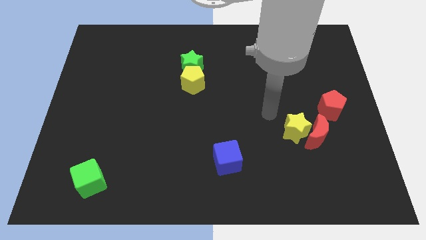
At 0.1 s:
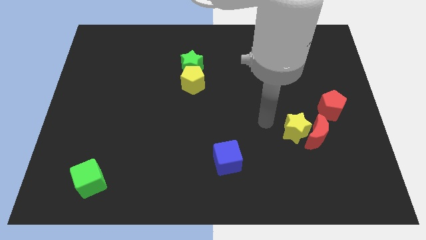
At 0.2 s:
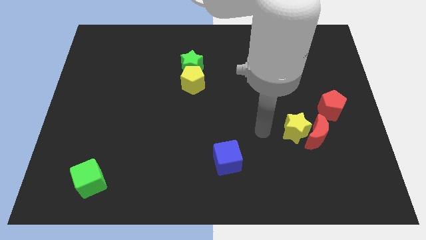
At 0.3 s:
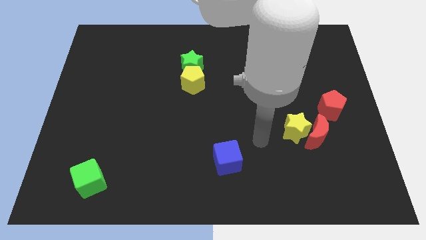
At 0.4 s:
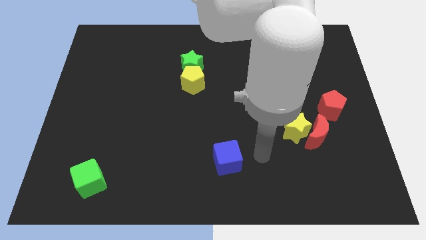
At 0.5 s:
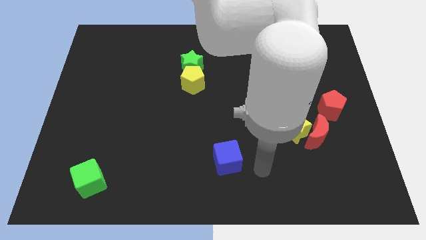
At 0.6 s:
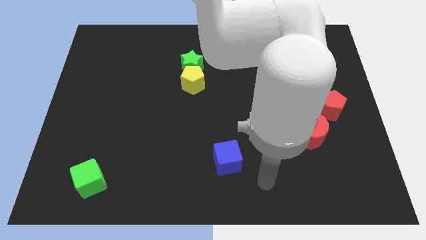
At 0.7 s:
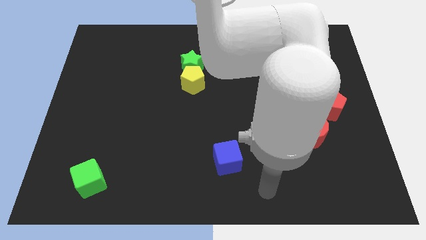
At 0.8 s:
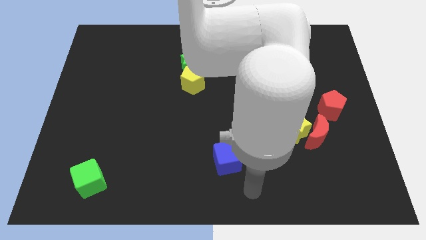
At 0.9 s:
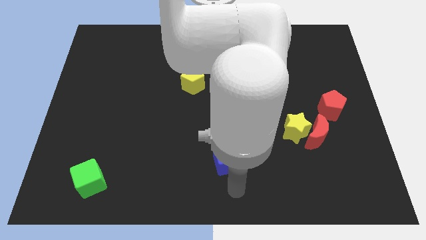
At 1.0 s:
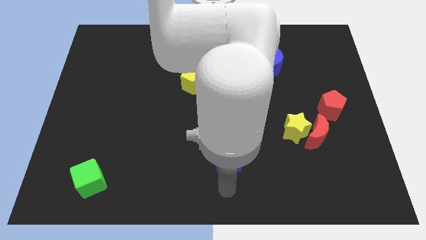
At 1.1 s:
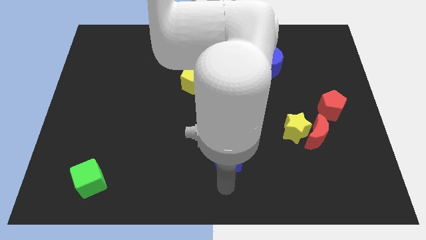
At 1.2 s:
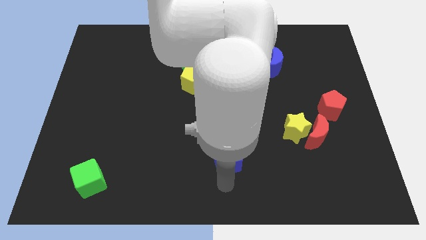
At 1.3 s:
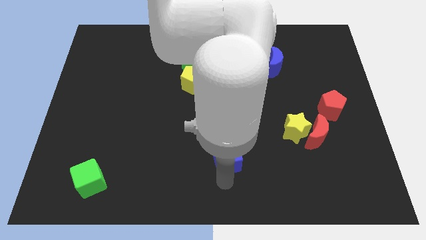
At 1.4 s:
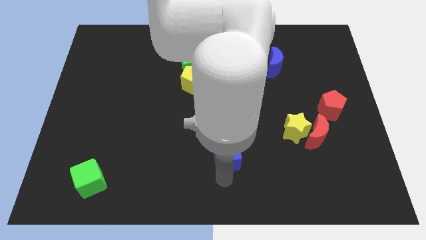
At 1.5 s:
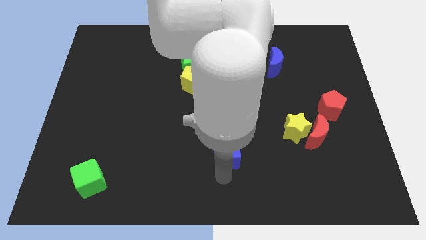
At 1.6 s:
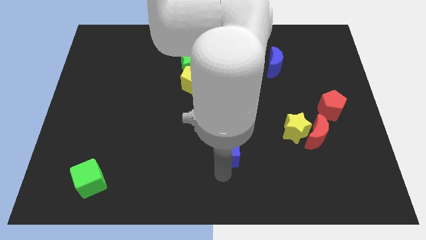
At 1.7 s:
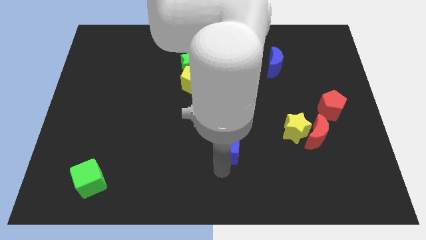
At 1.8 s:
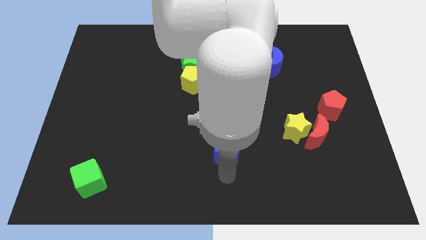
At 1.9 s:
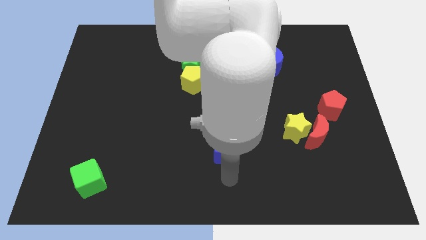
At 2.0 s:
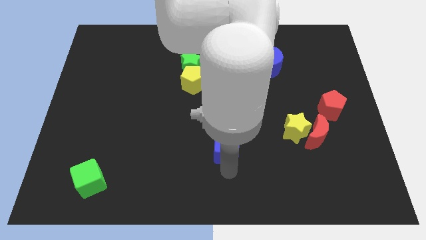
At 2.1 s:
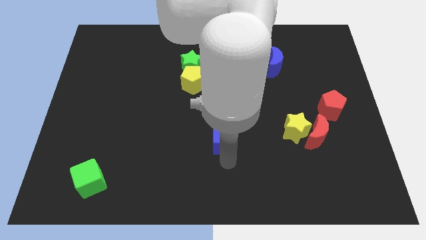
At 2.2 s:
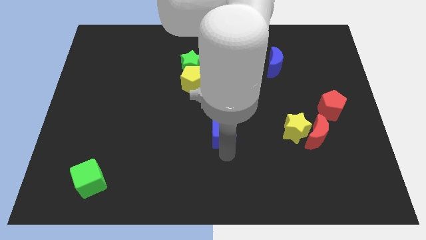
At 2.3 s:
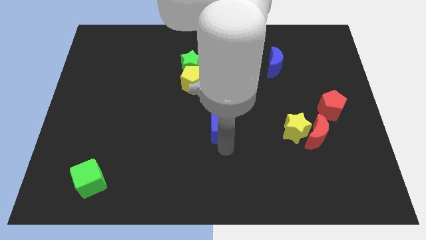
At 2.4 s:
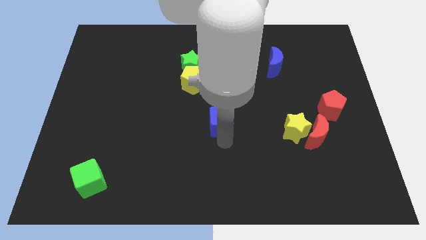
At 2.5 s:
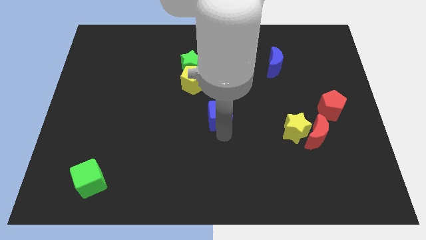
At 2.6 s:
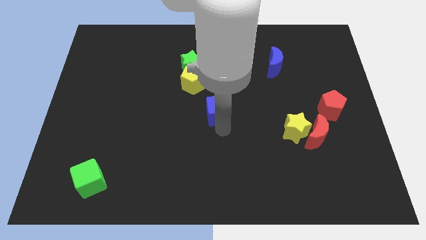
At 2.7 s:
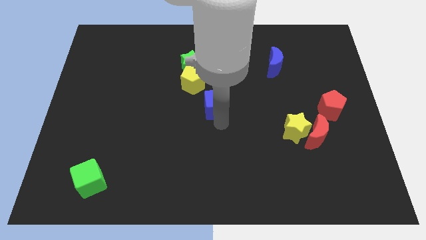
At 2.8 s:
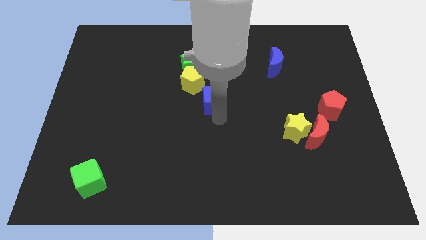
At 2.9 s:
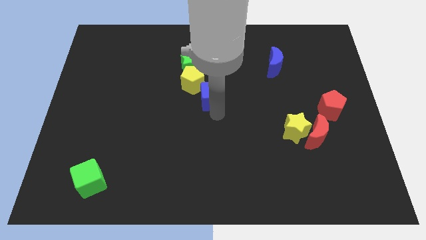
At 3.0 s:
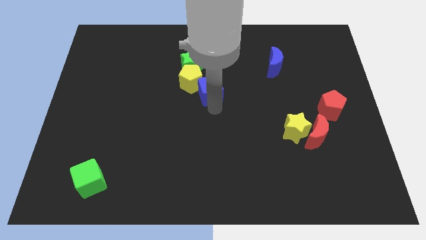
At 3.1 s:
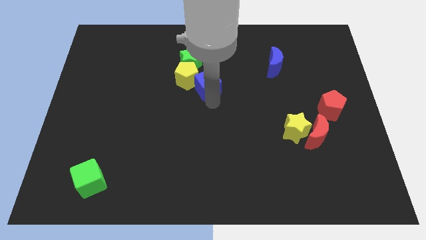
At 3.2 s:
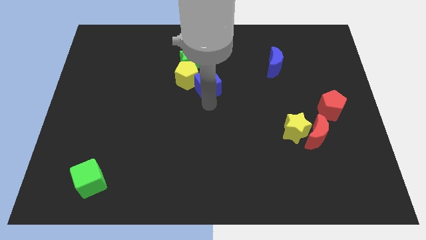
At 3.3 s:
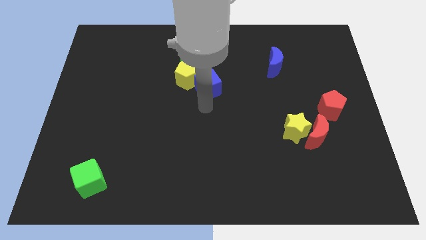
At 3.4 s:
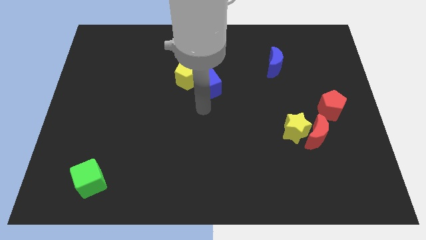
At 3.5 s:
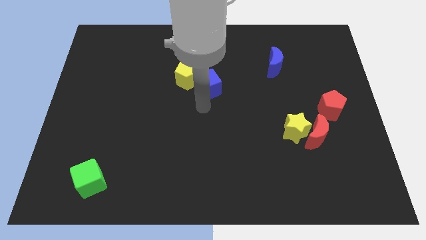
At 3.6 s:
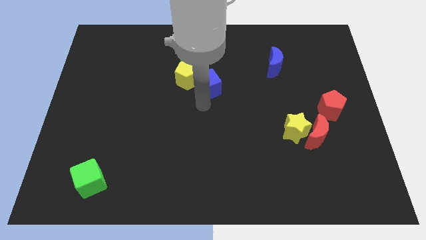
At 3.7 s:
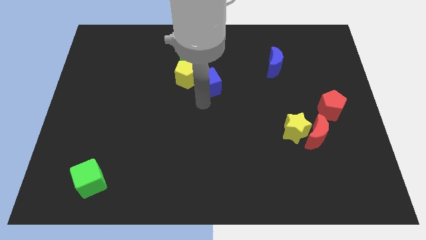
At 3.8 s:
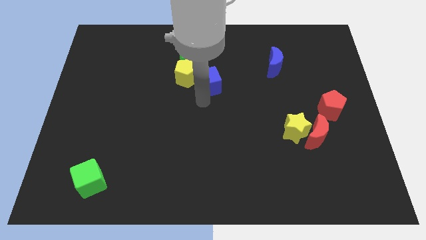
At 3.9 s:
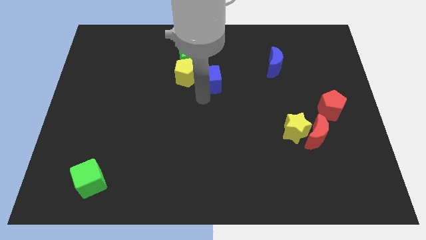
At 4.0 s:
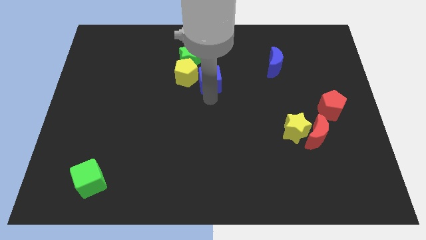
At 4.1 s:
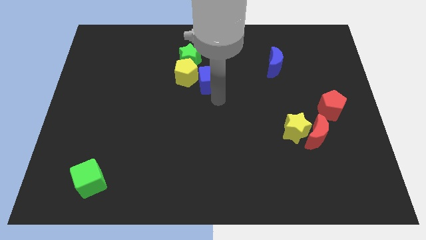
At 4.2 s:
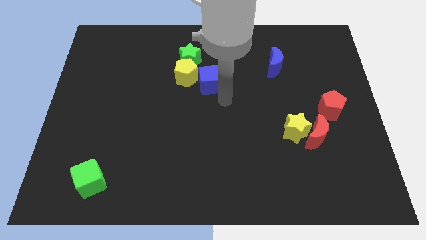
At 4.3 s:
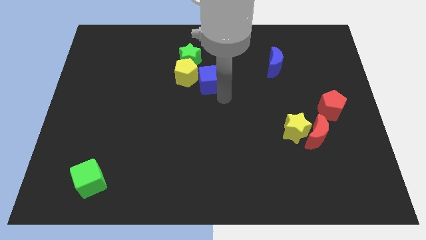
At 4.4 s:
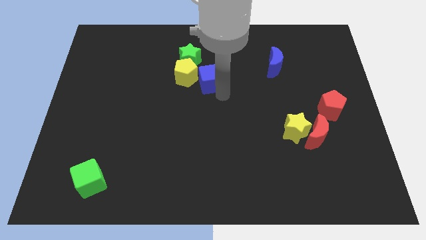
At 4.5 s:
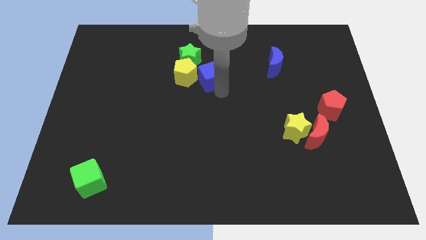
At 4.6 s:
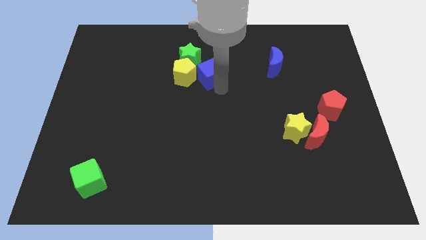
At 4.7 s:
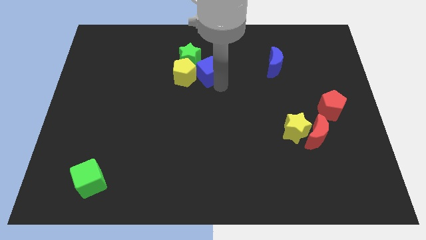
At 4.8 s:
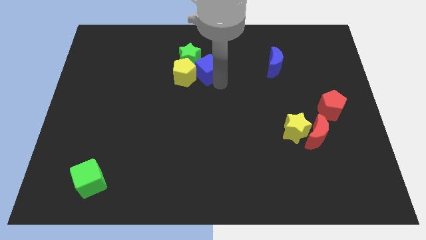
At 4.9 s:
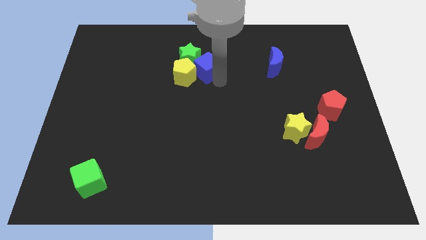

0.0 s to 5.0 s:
push the blue cube next to the green star

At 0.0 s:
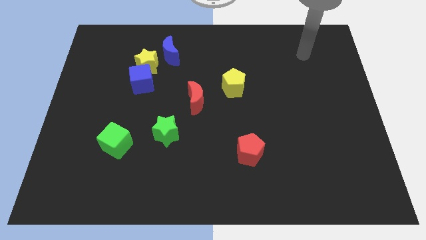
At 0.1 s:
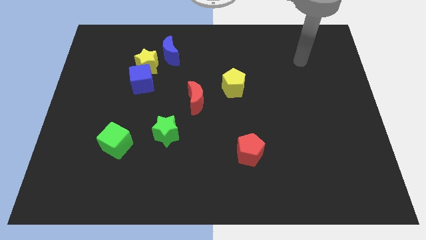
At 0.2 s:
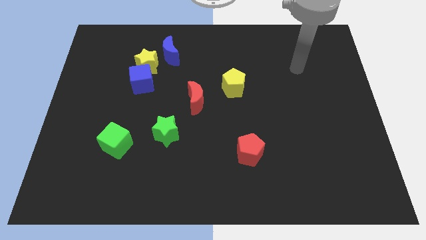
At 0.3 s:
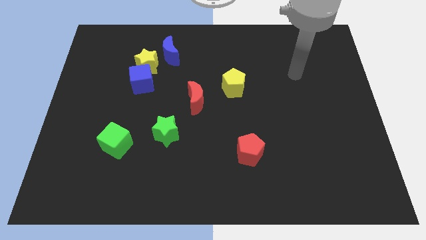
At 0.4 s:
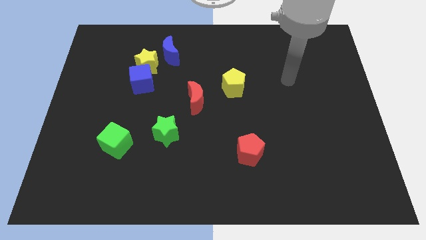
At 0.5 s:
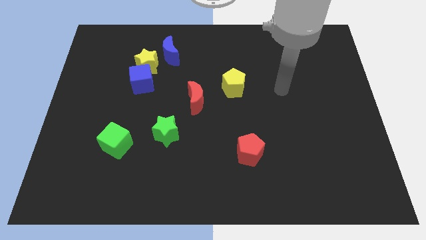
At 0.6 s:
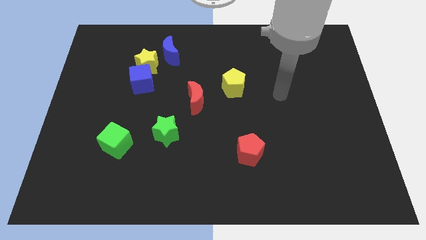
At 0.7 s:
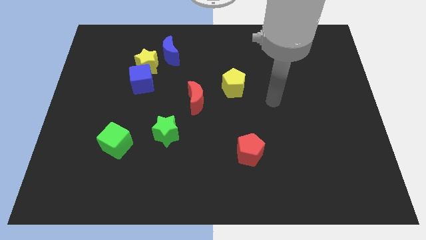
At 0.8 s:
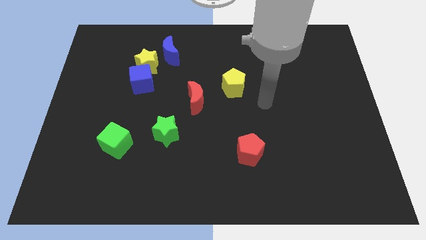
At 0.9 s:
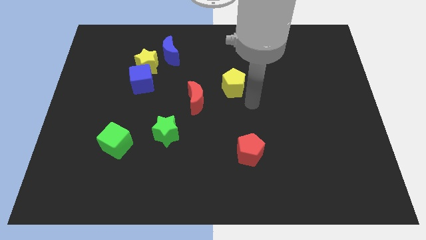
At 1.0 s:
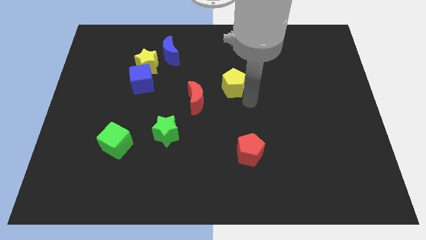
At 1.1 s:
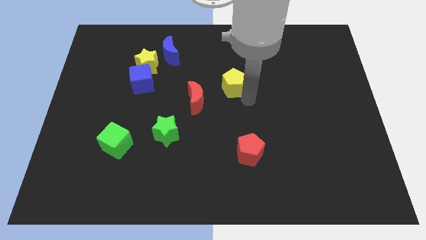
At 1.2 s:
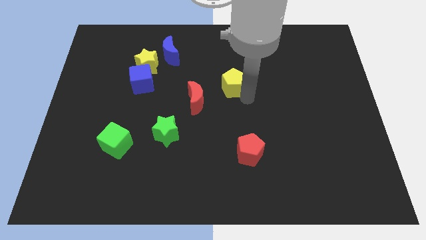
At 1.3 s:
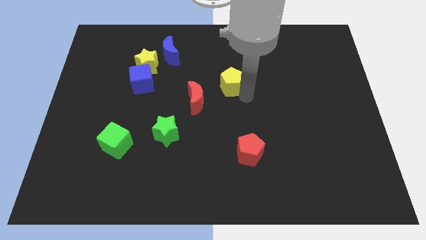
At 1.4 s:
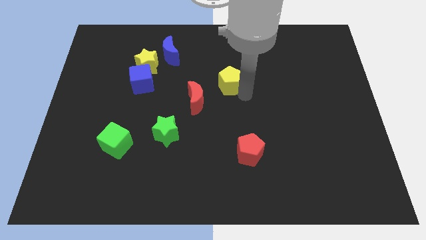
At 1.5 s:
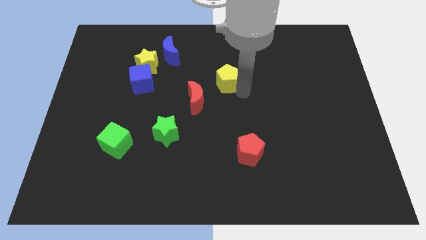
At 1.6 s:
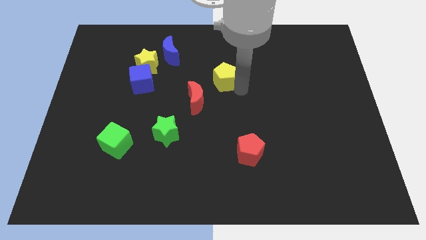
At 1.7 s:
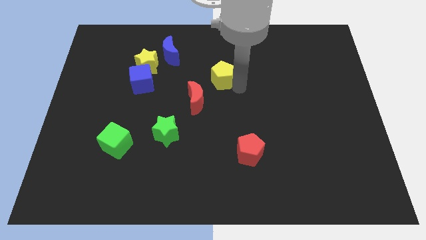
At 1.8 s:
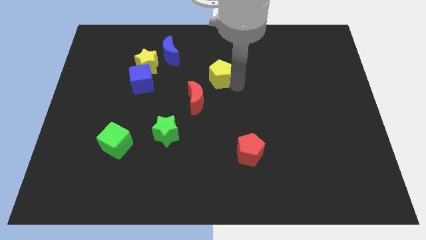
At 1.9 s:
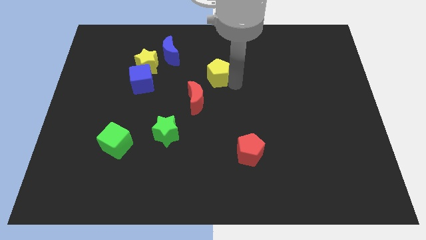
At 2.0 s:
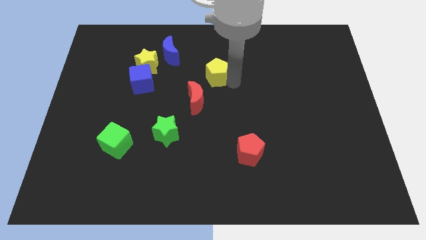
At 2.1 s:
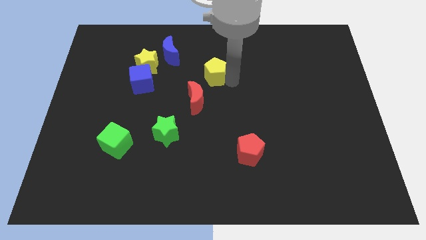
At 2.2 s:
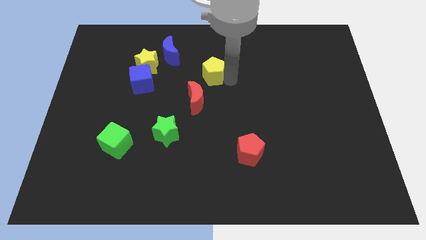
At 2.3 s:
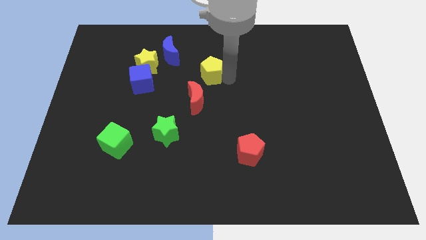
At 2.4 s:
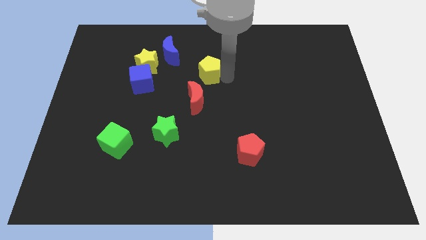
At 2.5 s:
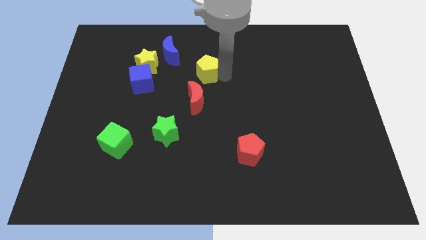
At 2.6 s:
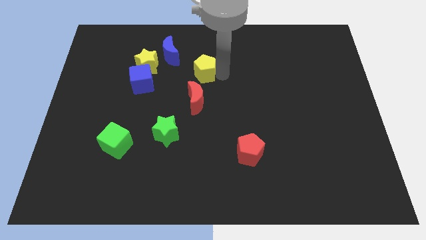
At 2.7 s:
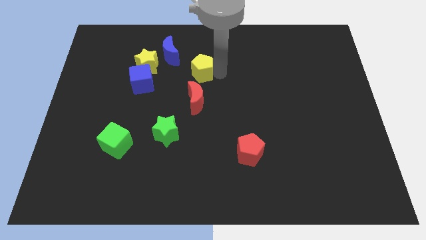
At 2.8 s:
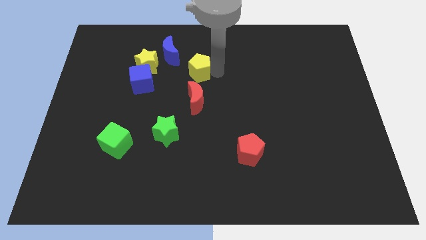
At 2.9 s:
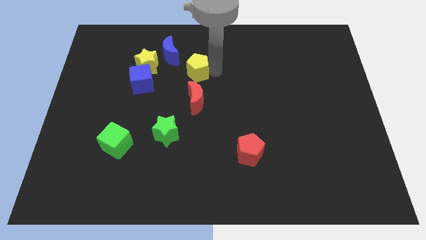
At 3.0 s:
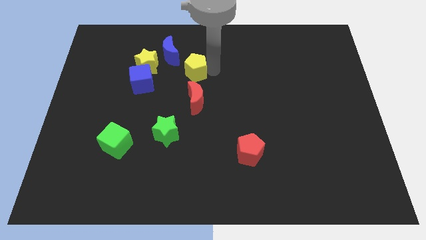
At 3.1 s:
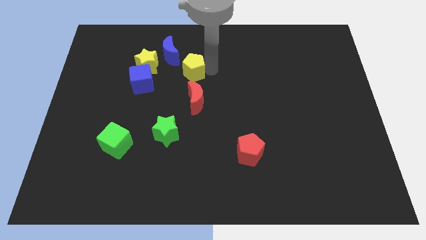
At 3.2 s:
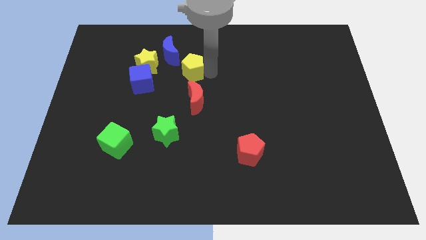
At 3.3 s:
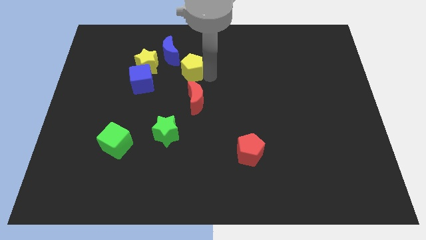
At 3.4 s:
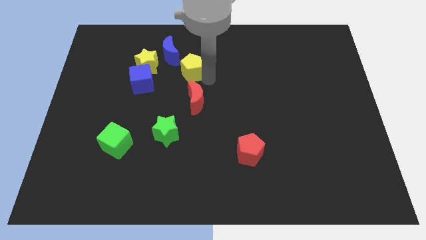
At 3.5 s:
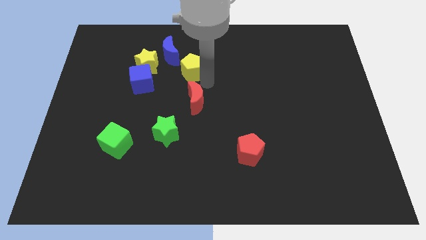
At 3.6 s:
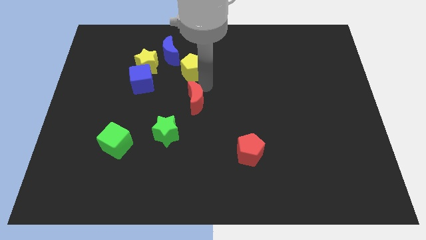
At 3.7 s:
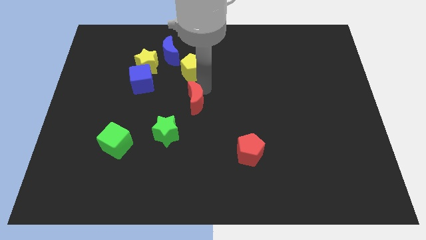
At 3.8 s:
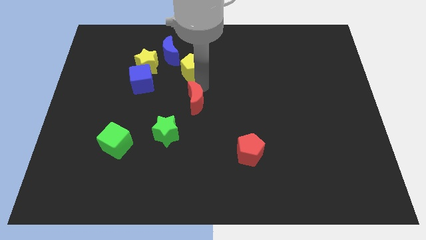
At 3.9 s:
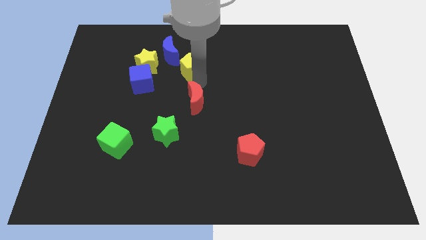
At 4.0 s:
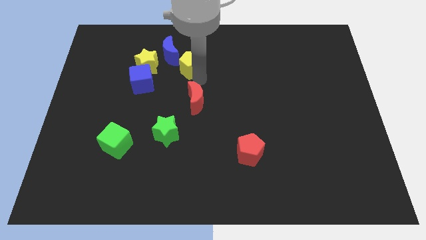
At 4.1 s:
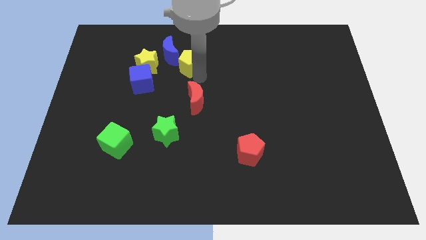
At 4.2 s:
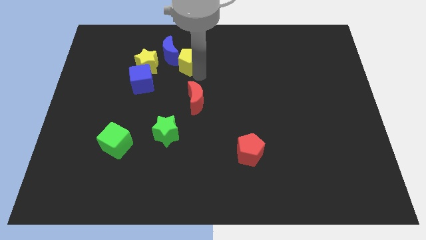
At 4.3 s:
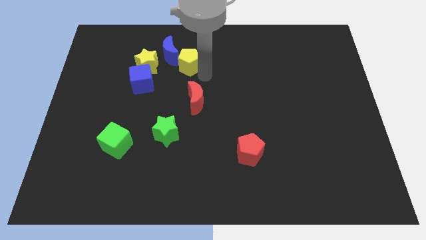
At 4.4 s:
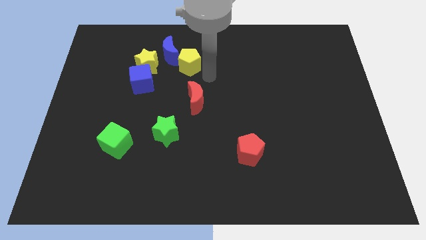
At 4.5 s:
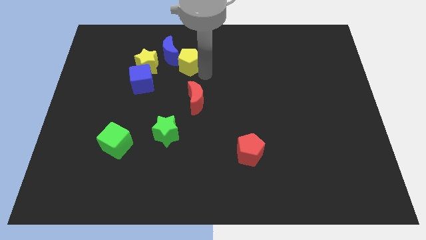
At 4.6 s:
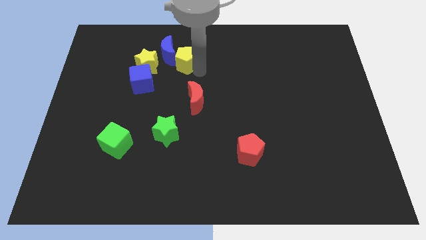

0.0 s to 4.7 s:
move the yellow pentagon to the blue moon
